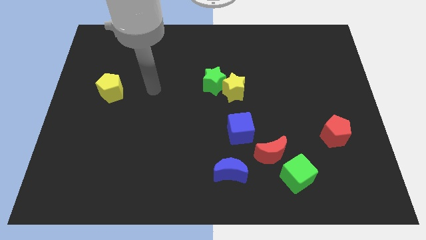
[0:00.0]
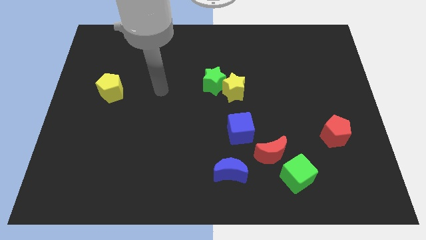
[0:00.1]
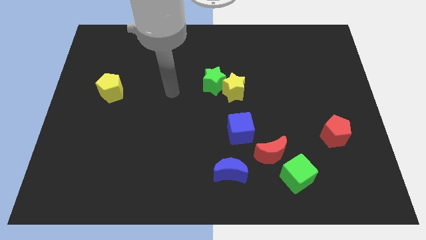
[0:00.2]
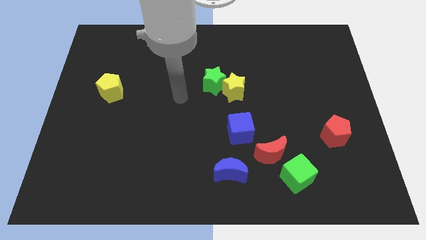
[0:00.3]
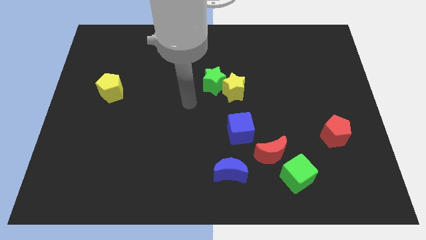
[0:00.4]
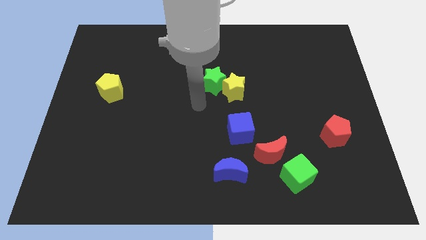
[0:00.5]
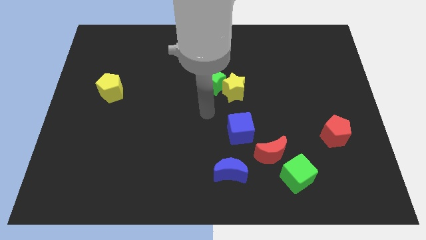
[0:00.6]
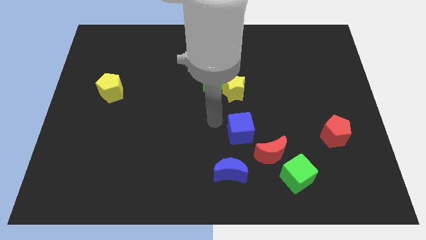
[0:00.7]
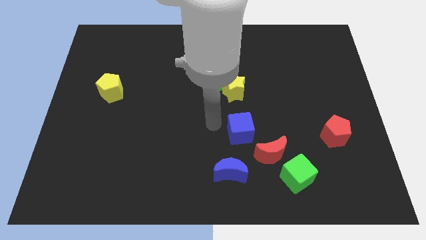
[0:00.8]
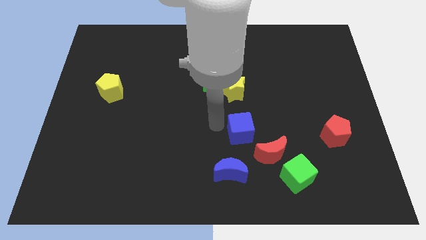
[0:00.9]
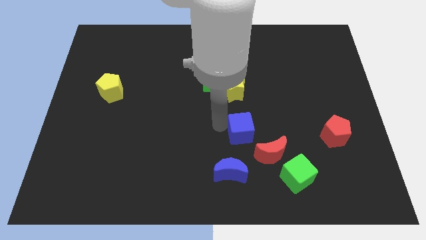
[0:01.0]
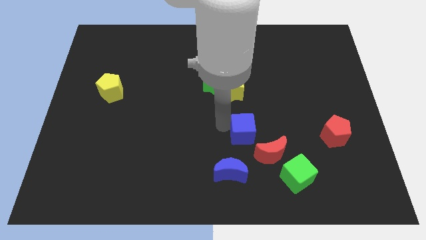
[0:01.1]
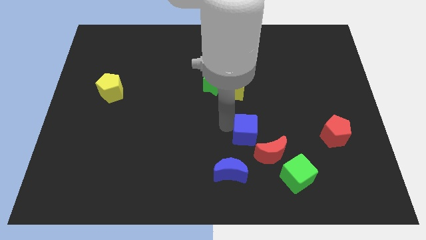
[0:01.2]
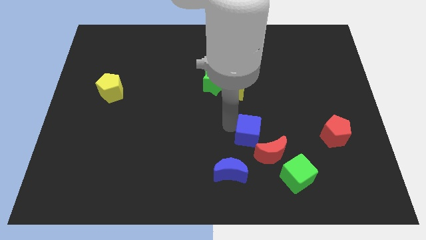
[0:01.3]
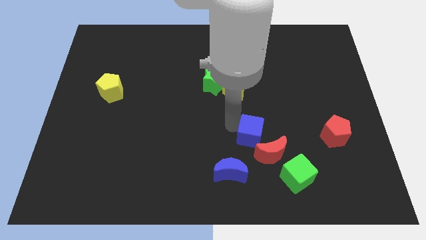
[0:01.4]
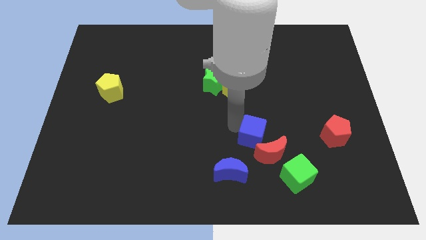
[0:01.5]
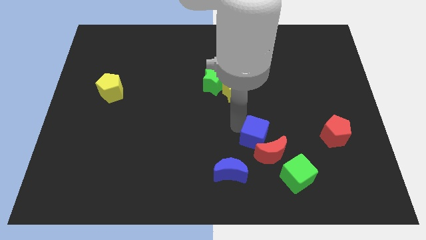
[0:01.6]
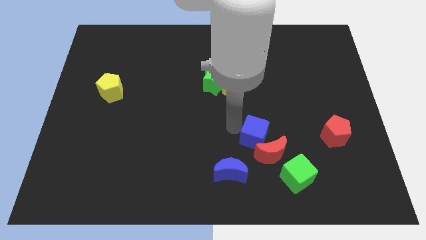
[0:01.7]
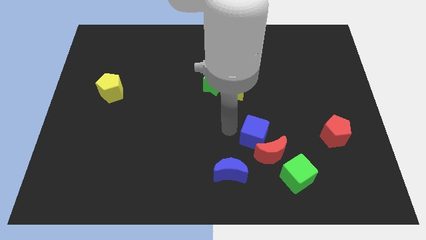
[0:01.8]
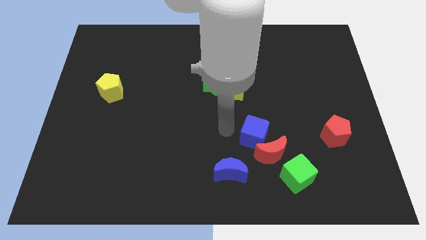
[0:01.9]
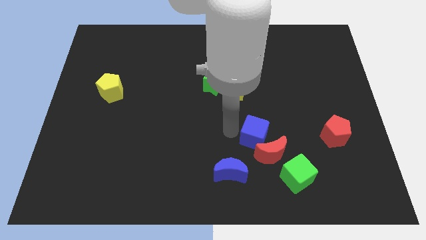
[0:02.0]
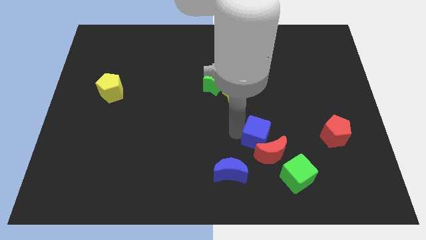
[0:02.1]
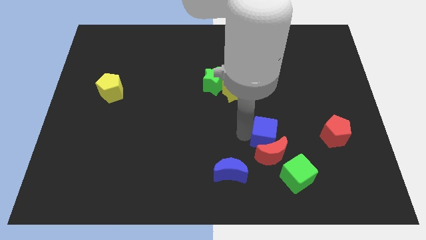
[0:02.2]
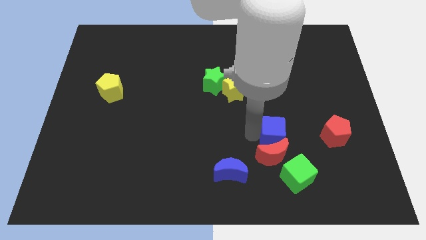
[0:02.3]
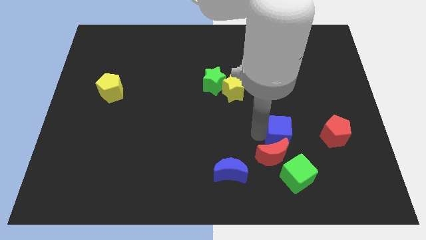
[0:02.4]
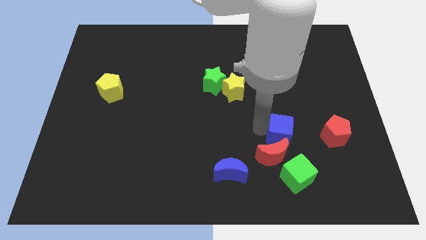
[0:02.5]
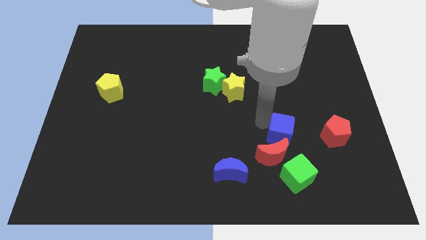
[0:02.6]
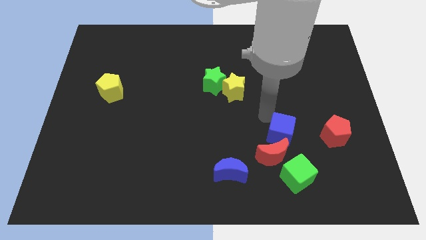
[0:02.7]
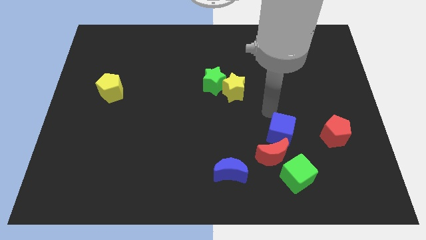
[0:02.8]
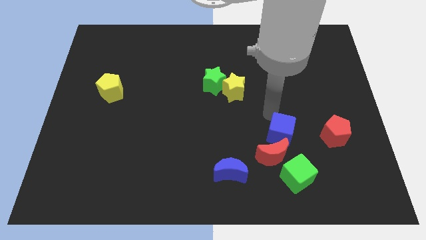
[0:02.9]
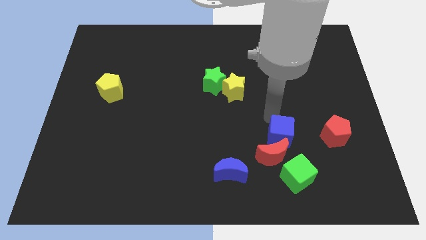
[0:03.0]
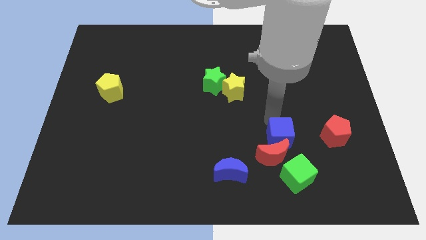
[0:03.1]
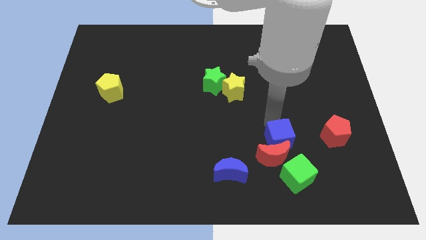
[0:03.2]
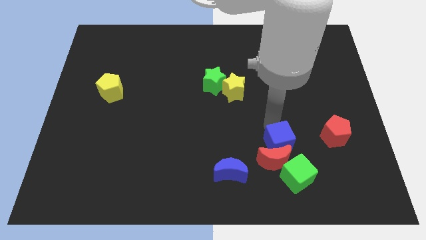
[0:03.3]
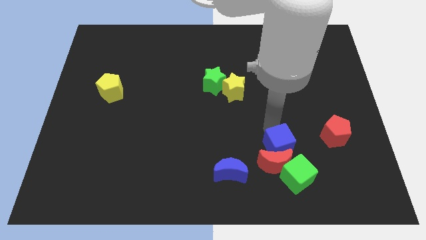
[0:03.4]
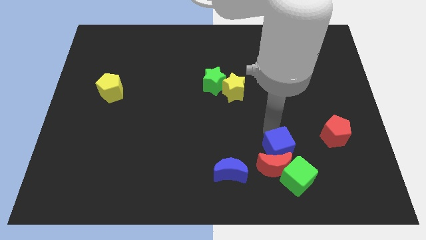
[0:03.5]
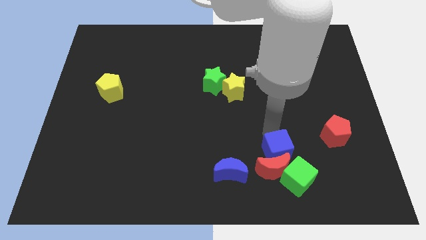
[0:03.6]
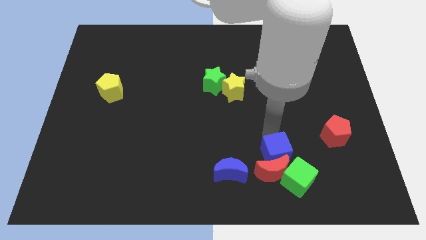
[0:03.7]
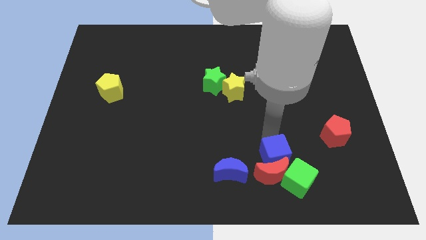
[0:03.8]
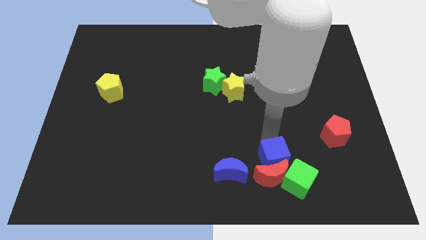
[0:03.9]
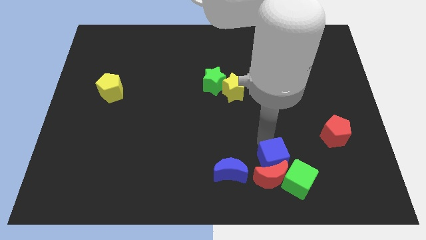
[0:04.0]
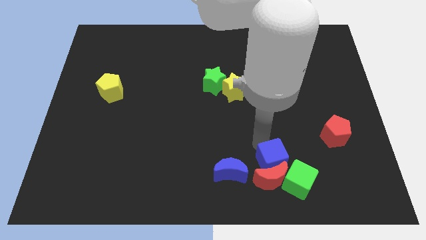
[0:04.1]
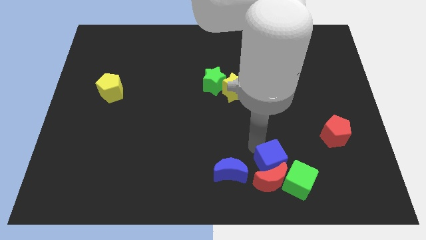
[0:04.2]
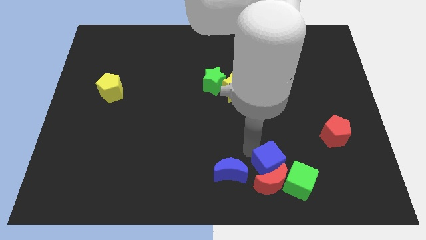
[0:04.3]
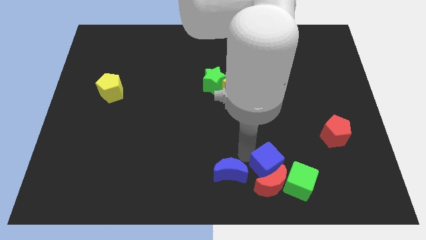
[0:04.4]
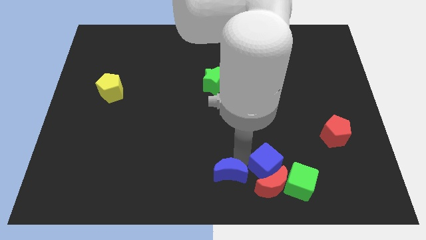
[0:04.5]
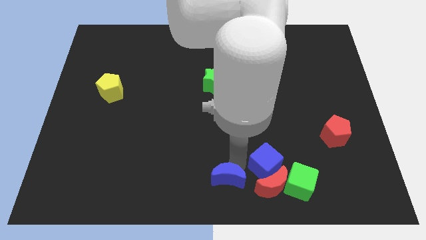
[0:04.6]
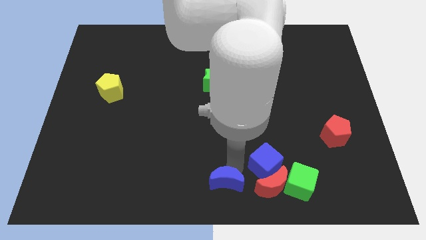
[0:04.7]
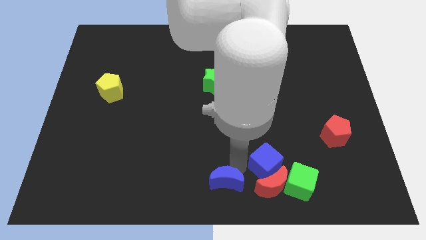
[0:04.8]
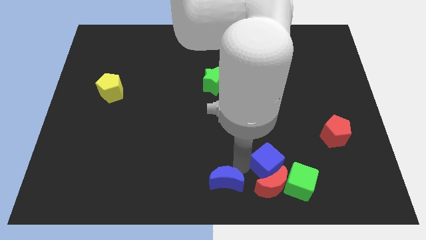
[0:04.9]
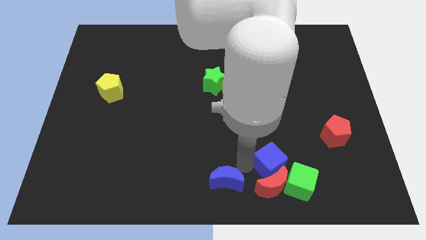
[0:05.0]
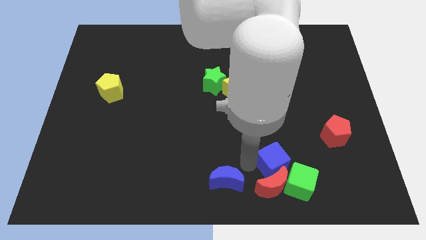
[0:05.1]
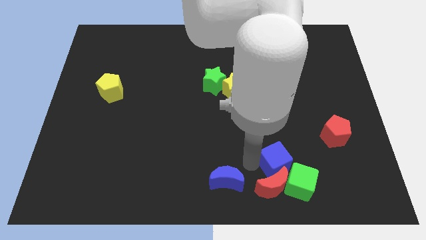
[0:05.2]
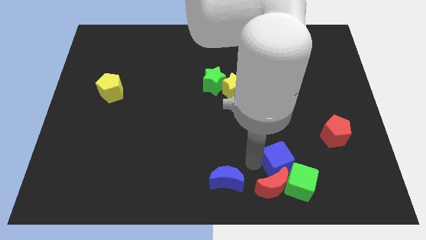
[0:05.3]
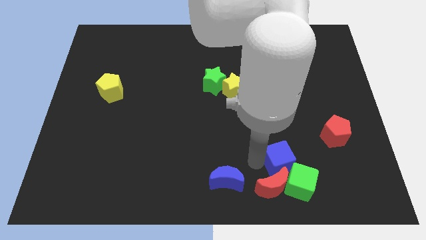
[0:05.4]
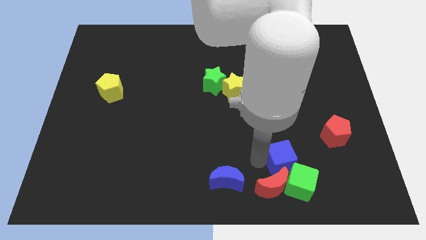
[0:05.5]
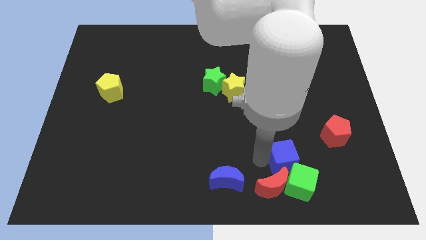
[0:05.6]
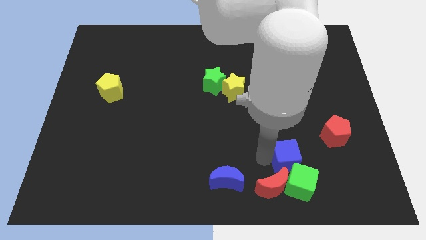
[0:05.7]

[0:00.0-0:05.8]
push the blue cube next to the green cube

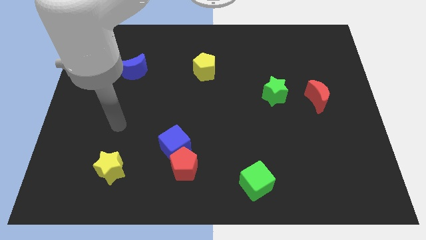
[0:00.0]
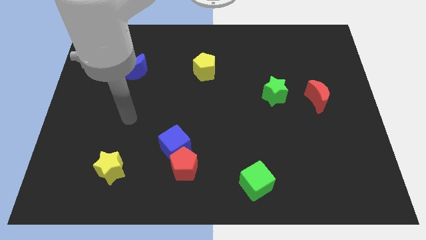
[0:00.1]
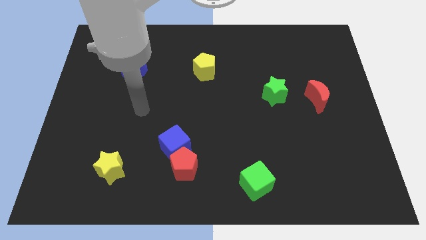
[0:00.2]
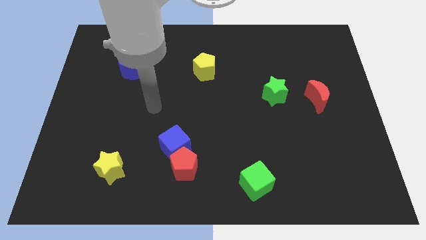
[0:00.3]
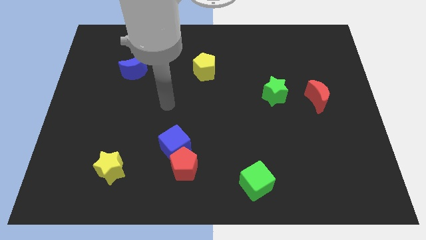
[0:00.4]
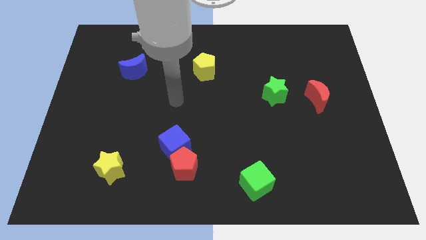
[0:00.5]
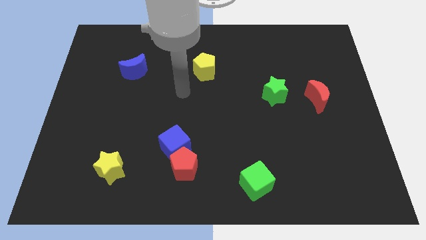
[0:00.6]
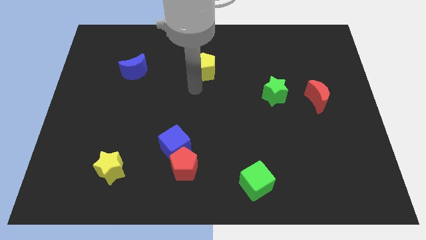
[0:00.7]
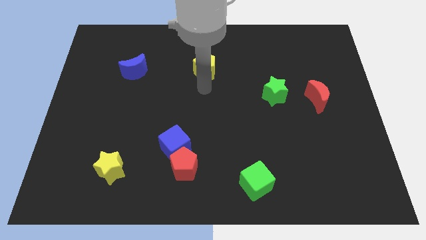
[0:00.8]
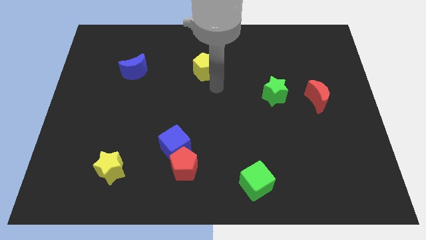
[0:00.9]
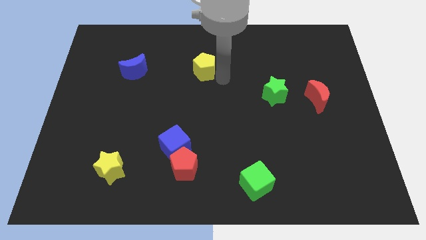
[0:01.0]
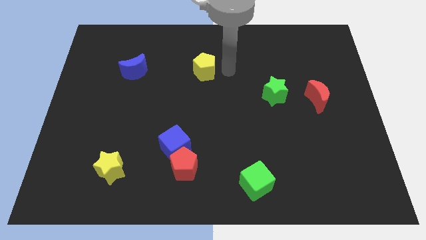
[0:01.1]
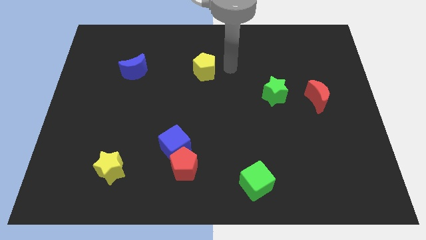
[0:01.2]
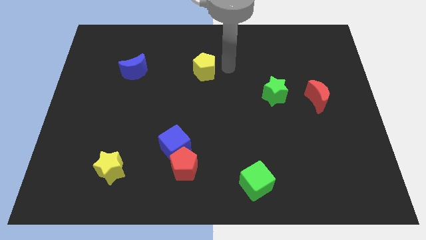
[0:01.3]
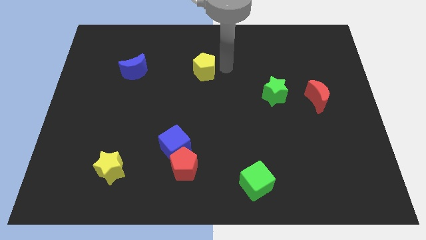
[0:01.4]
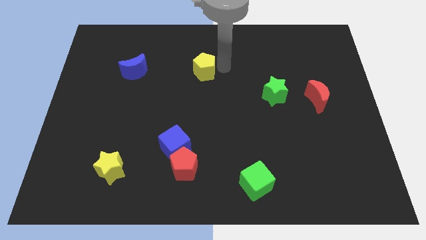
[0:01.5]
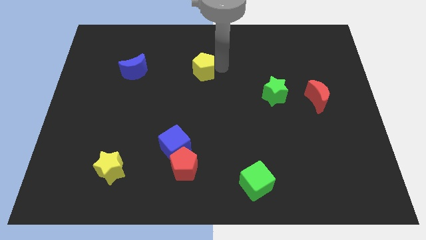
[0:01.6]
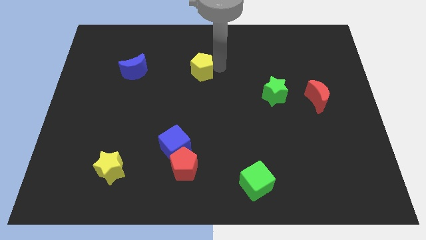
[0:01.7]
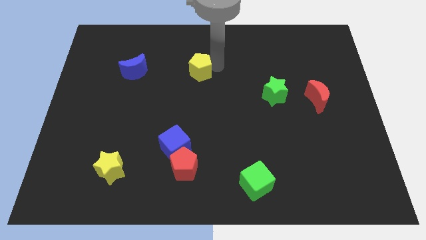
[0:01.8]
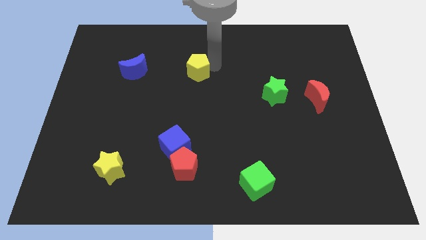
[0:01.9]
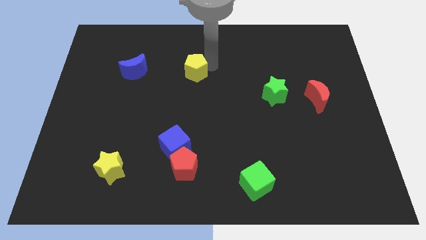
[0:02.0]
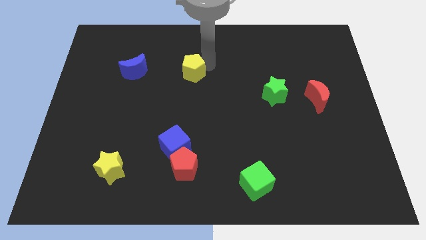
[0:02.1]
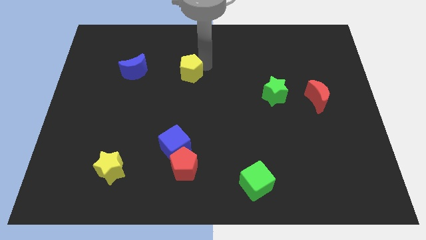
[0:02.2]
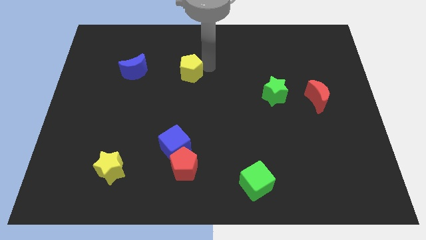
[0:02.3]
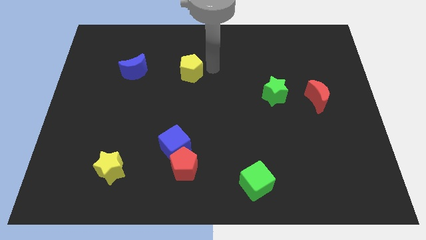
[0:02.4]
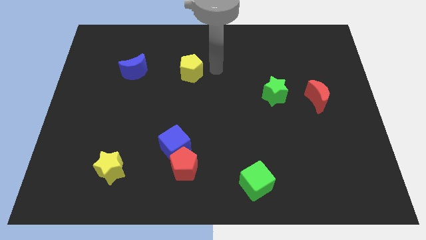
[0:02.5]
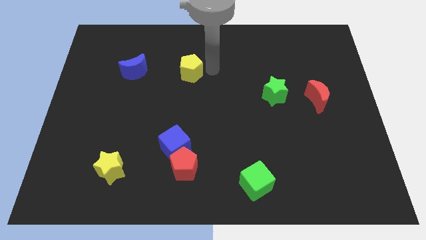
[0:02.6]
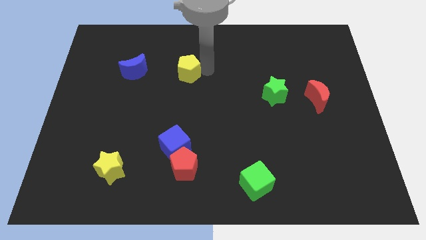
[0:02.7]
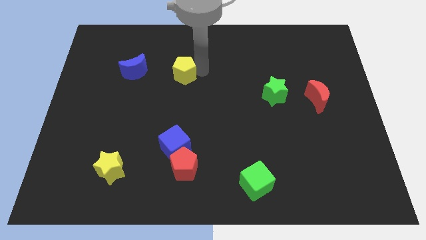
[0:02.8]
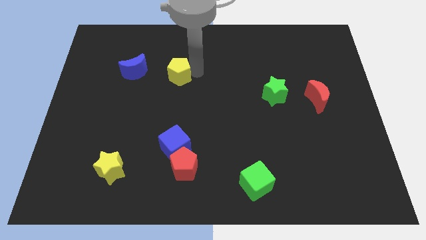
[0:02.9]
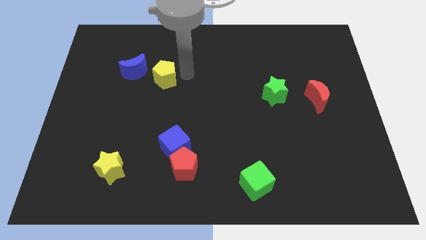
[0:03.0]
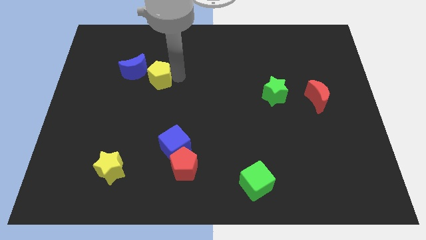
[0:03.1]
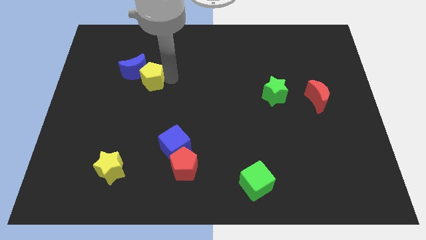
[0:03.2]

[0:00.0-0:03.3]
put the yellow pentagon towards the blue moon
